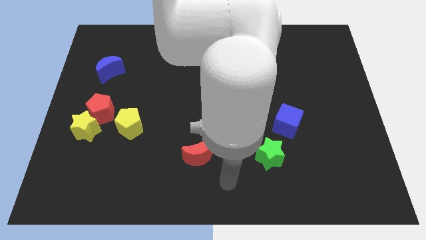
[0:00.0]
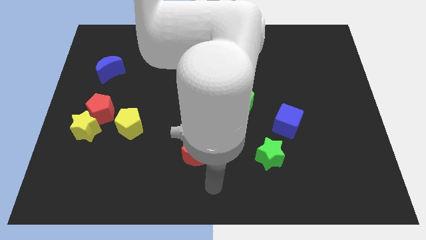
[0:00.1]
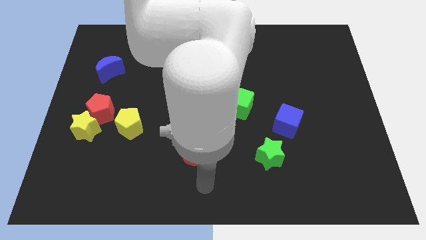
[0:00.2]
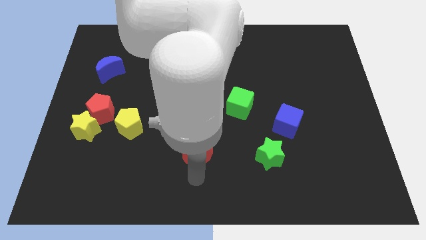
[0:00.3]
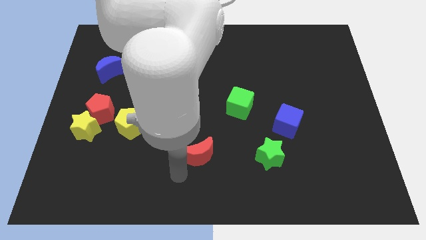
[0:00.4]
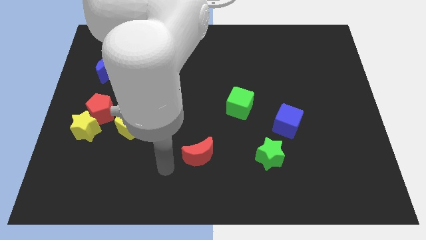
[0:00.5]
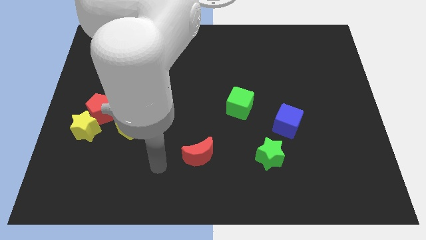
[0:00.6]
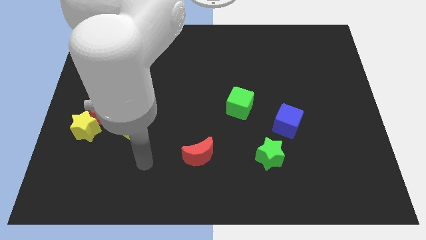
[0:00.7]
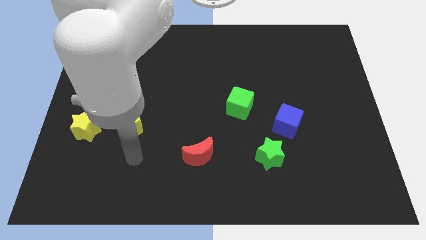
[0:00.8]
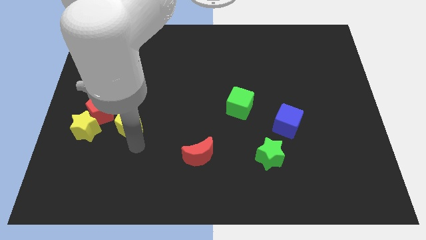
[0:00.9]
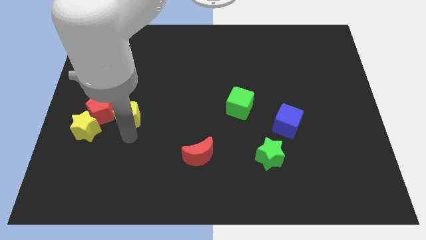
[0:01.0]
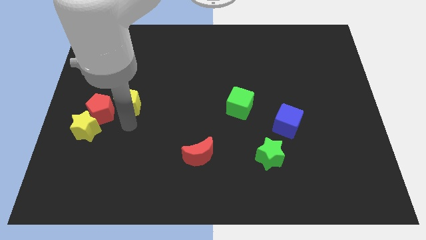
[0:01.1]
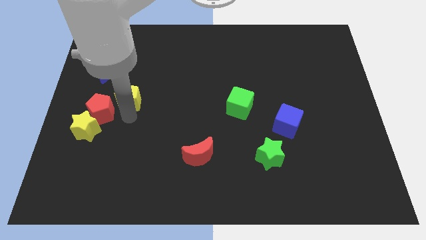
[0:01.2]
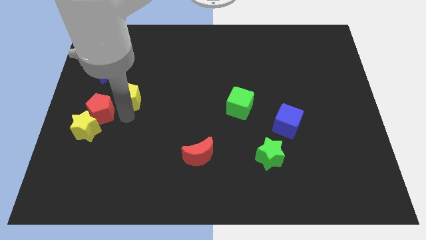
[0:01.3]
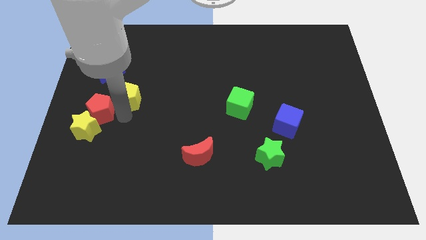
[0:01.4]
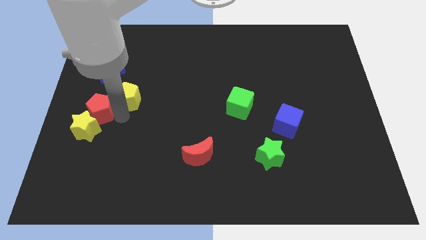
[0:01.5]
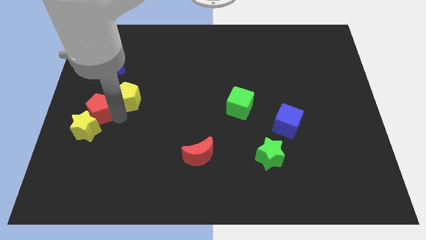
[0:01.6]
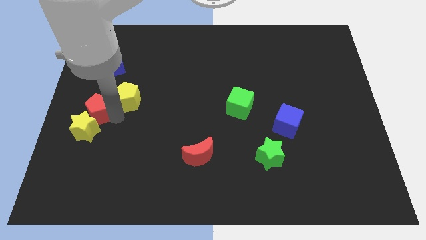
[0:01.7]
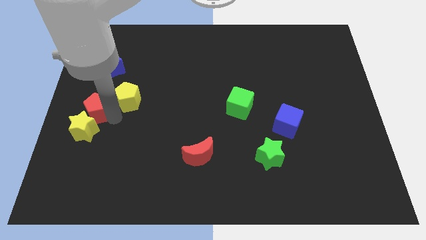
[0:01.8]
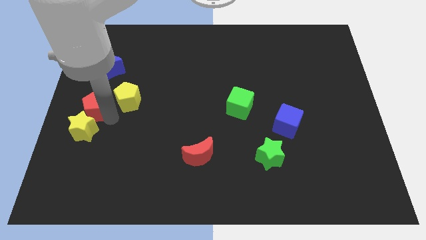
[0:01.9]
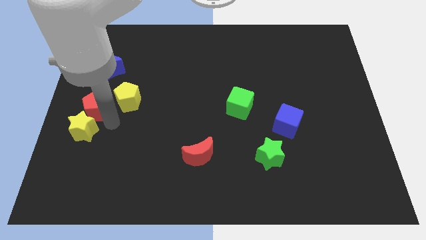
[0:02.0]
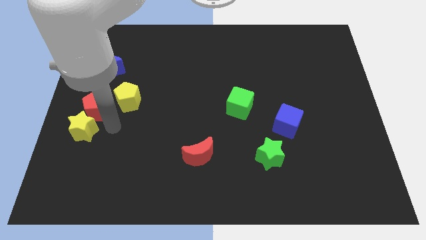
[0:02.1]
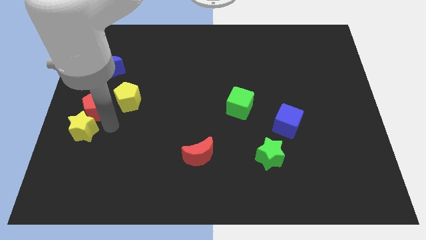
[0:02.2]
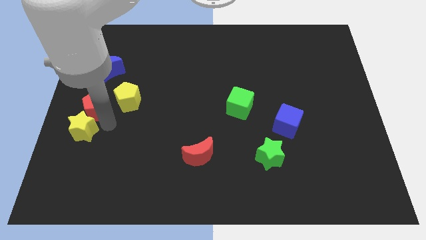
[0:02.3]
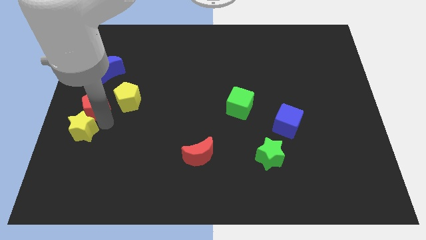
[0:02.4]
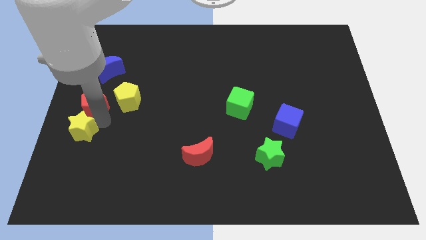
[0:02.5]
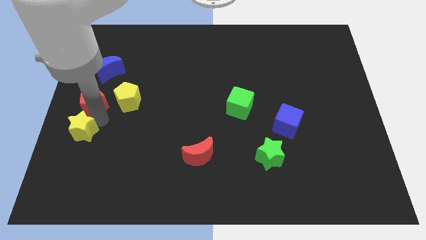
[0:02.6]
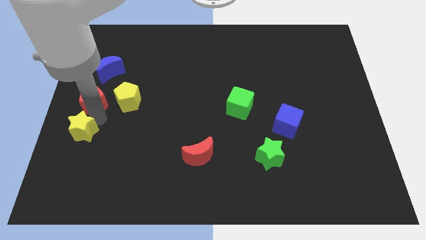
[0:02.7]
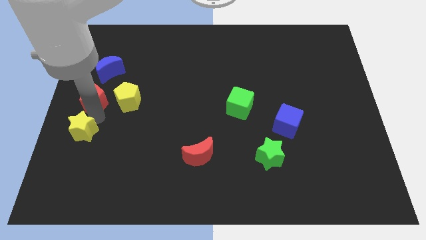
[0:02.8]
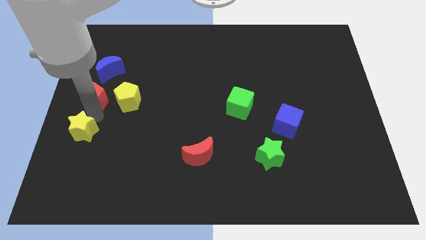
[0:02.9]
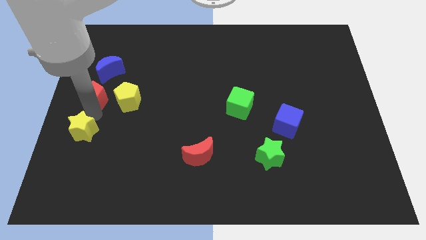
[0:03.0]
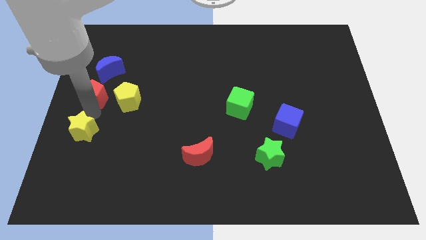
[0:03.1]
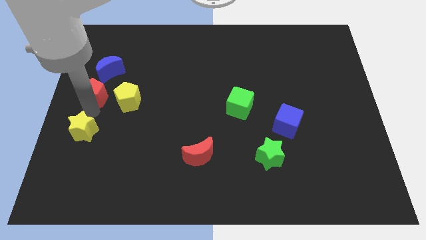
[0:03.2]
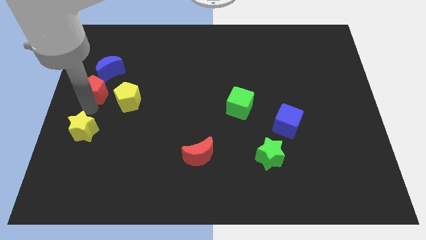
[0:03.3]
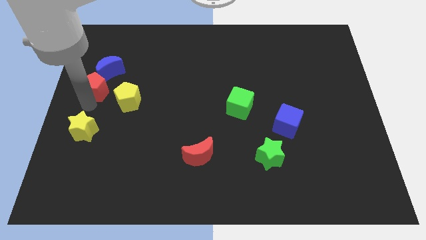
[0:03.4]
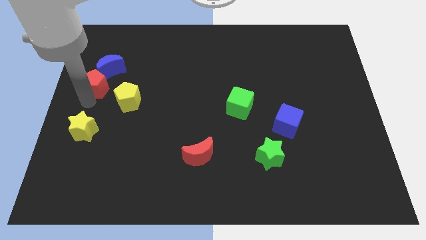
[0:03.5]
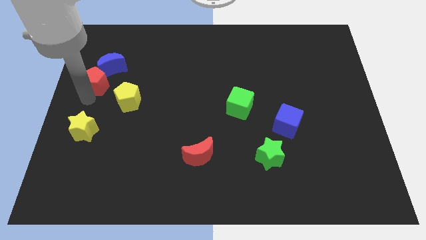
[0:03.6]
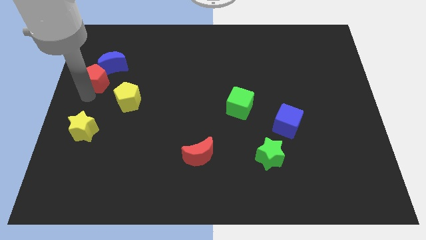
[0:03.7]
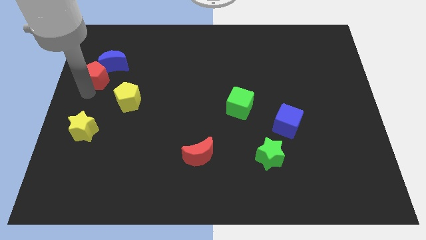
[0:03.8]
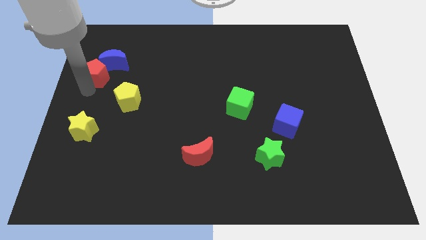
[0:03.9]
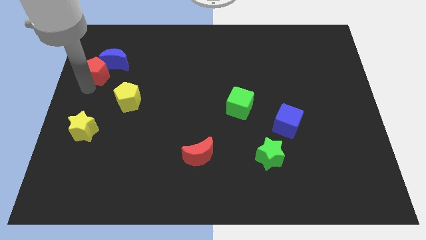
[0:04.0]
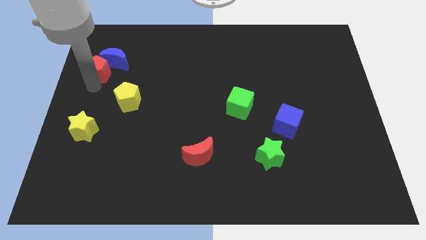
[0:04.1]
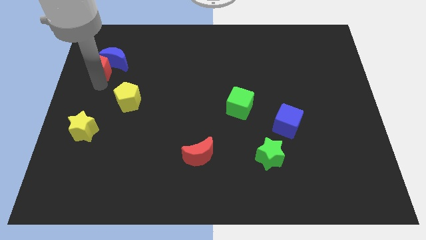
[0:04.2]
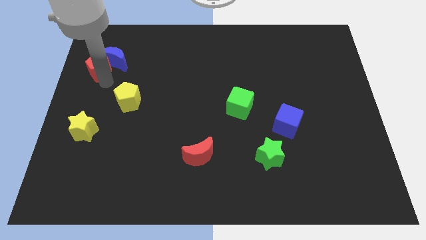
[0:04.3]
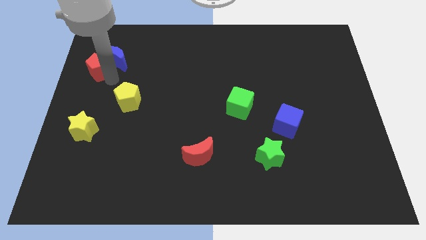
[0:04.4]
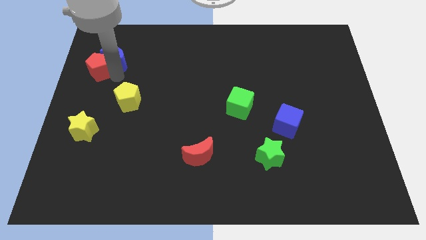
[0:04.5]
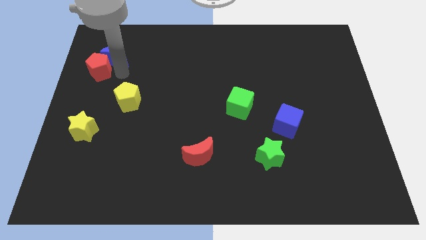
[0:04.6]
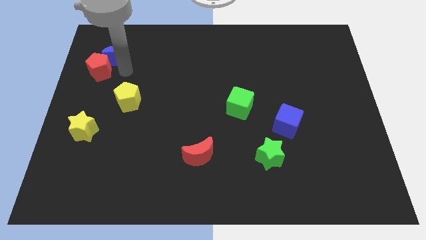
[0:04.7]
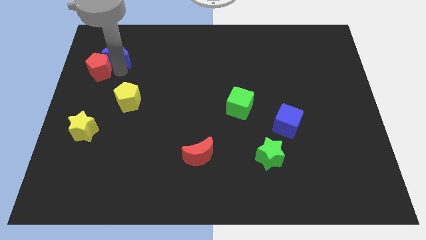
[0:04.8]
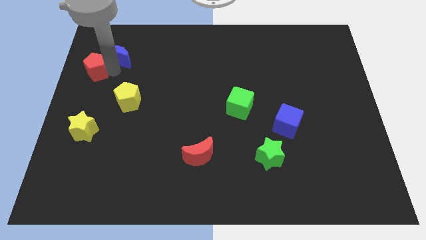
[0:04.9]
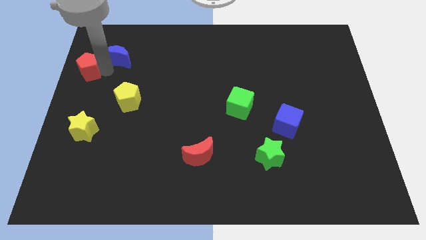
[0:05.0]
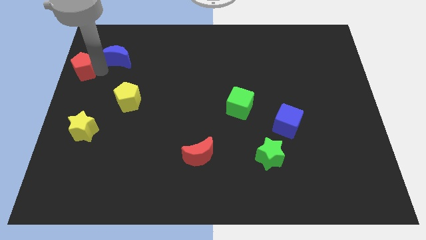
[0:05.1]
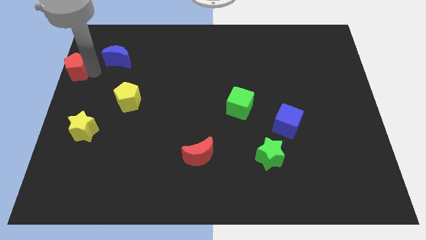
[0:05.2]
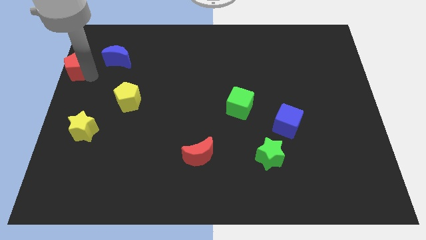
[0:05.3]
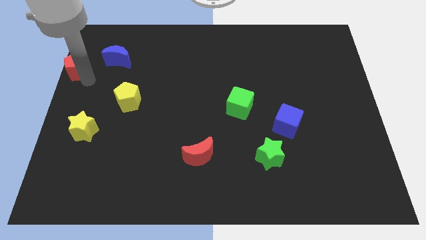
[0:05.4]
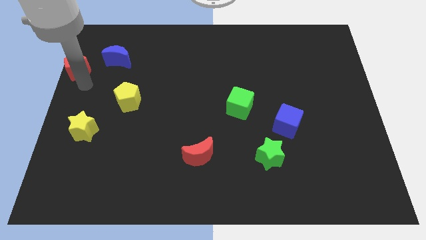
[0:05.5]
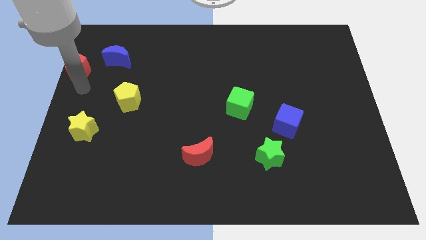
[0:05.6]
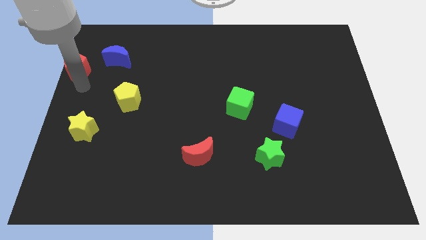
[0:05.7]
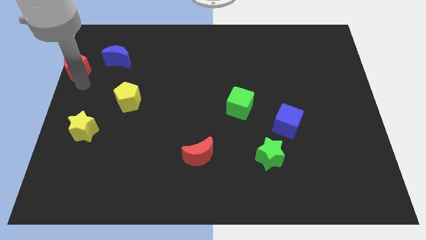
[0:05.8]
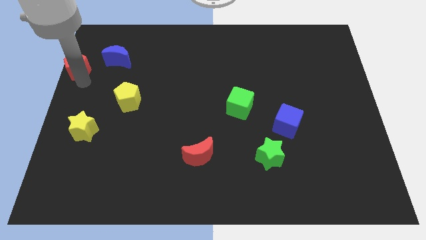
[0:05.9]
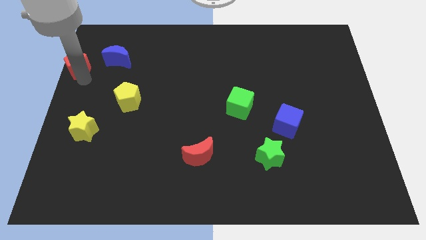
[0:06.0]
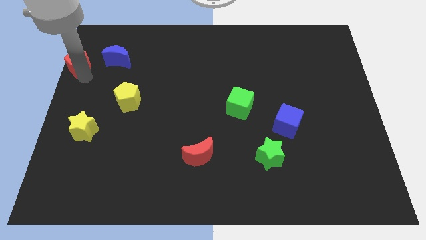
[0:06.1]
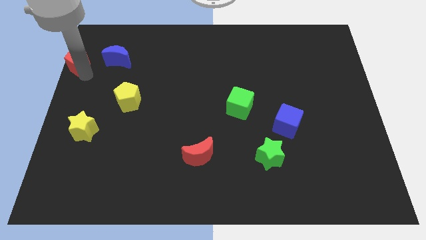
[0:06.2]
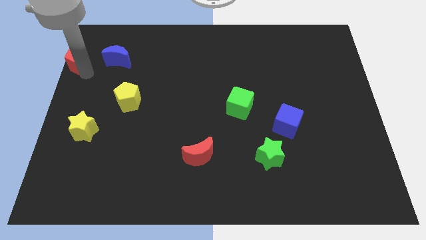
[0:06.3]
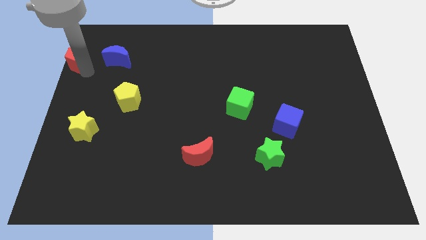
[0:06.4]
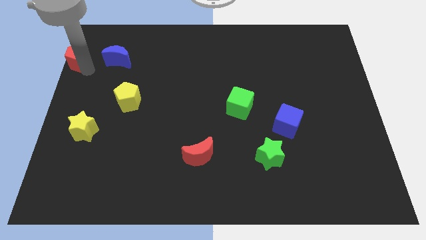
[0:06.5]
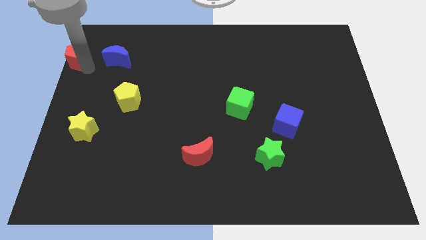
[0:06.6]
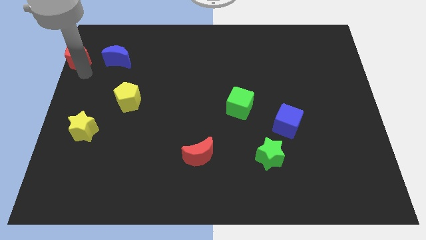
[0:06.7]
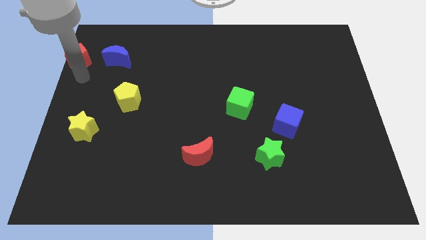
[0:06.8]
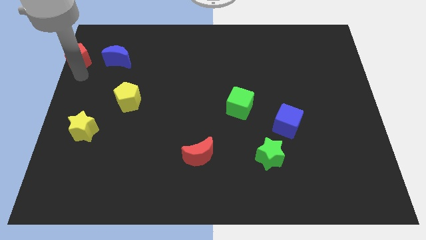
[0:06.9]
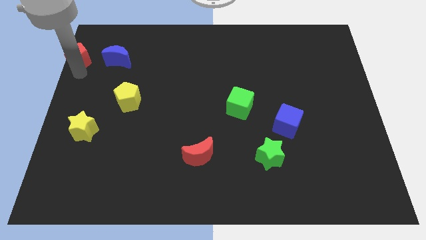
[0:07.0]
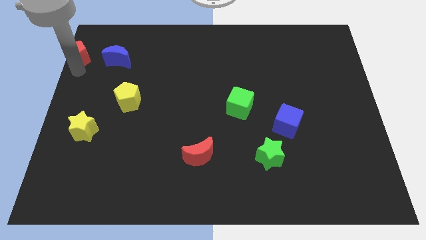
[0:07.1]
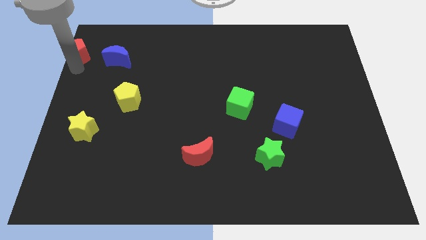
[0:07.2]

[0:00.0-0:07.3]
move the red pentagon to the top left

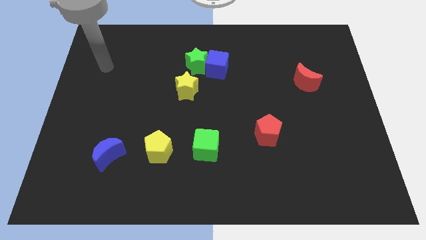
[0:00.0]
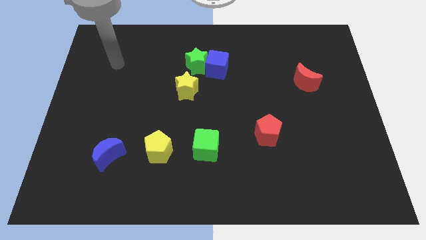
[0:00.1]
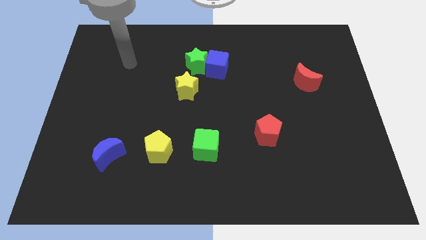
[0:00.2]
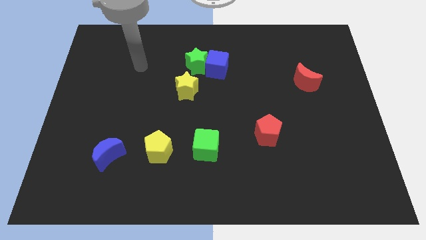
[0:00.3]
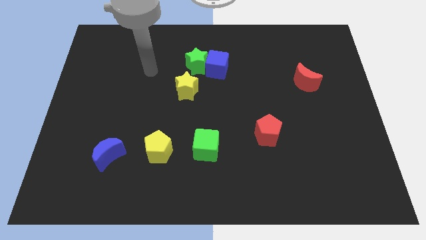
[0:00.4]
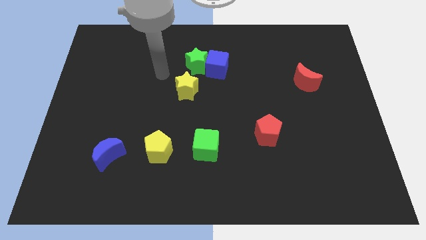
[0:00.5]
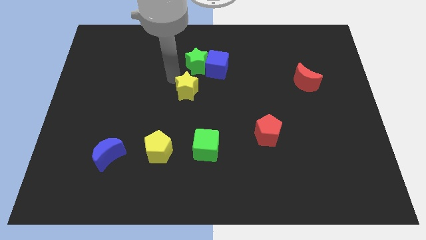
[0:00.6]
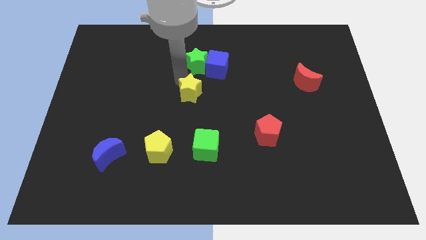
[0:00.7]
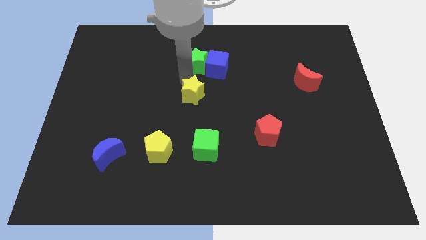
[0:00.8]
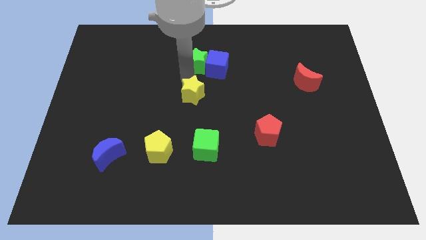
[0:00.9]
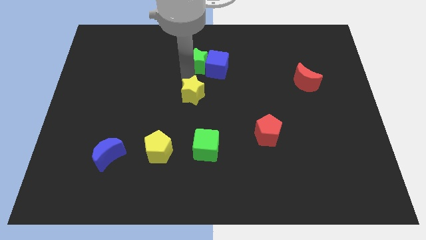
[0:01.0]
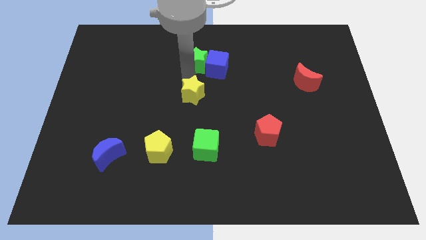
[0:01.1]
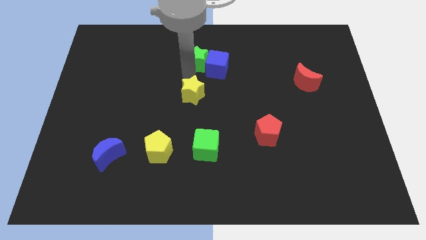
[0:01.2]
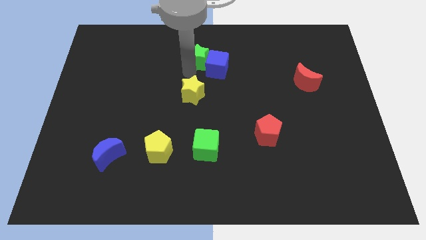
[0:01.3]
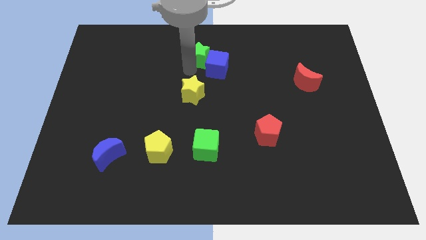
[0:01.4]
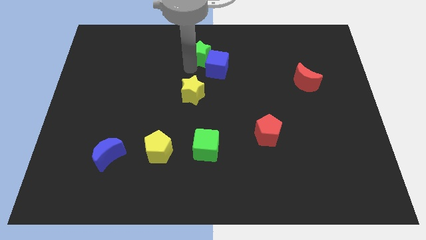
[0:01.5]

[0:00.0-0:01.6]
put the green star to the towards your base
